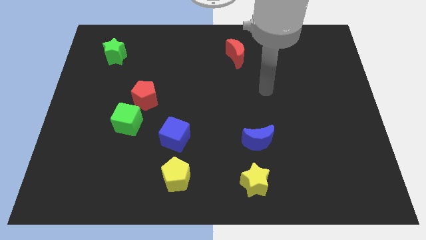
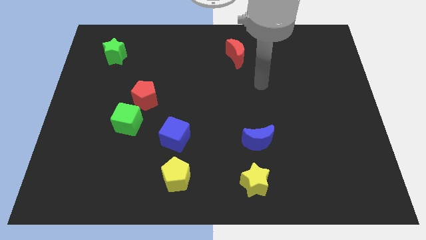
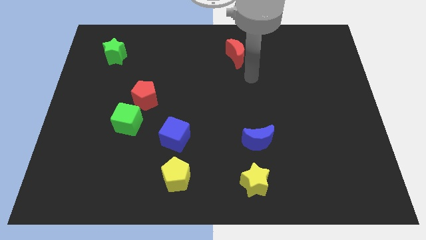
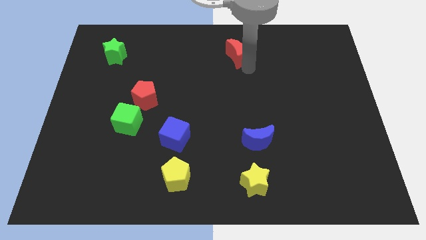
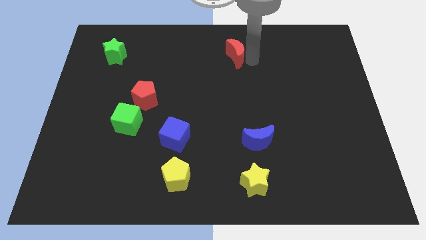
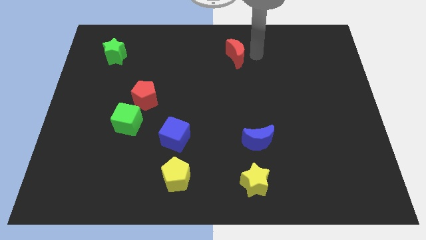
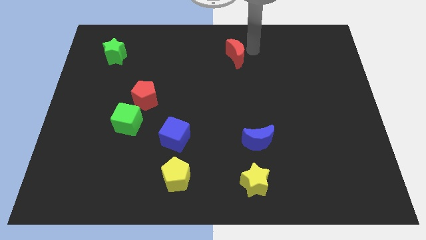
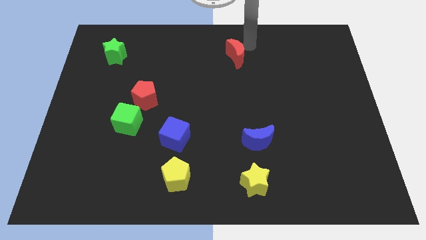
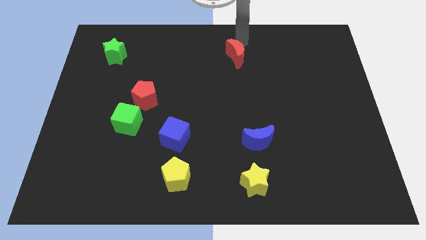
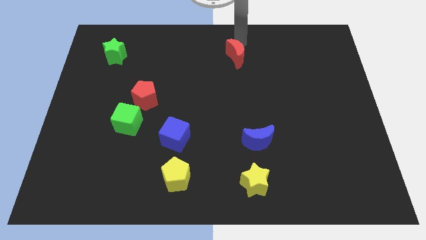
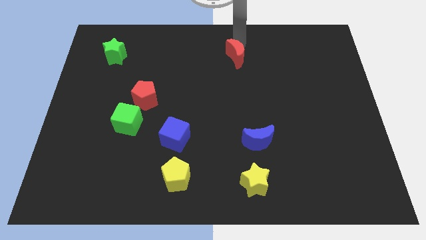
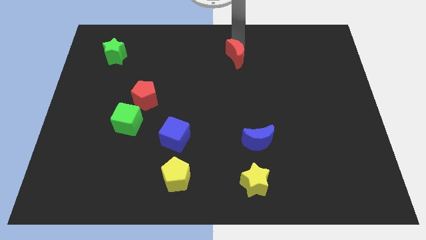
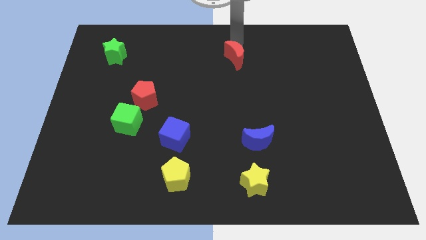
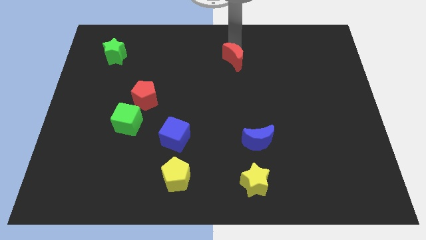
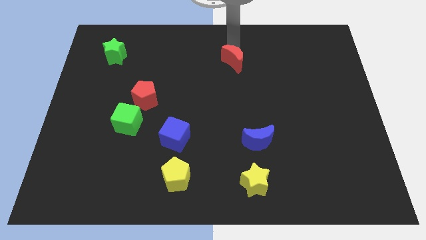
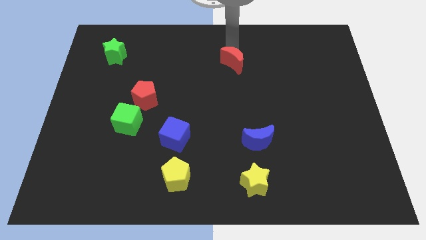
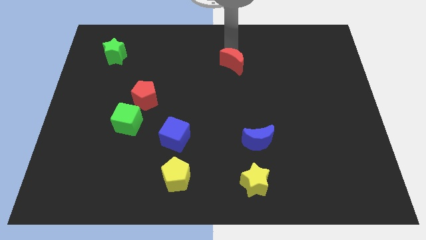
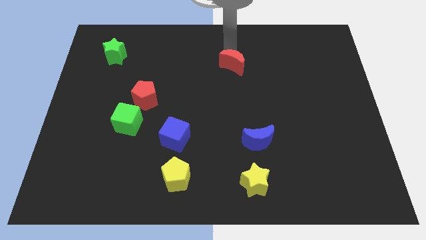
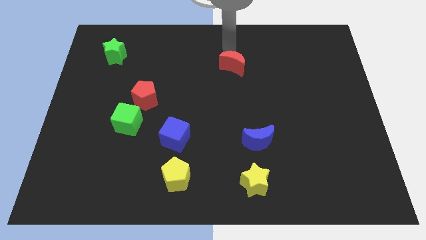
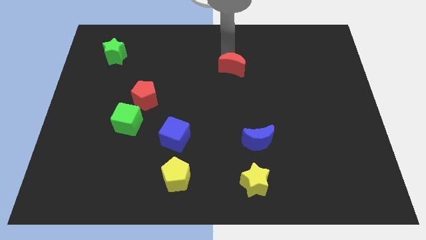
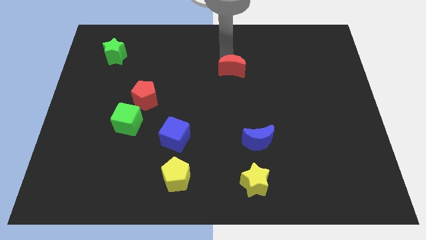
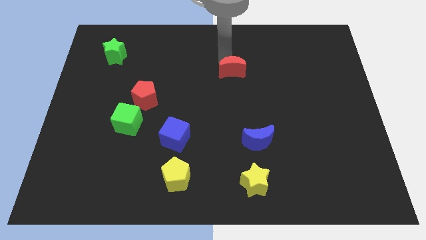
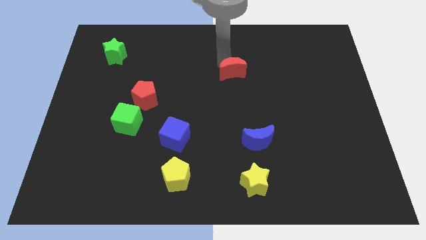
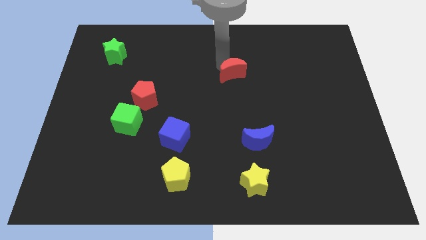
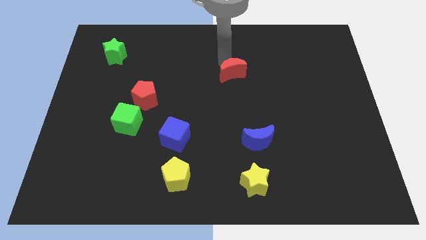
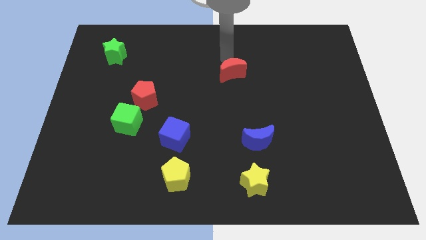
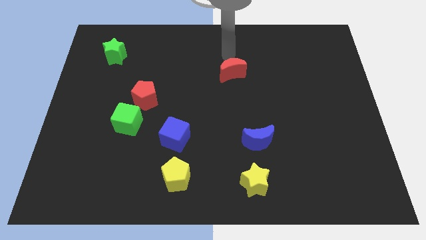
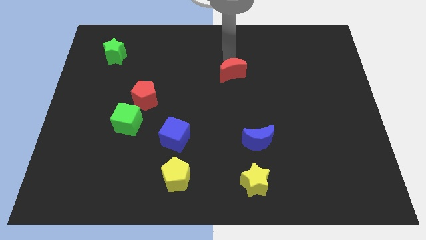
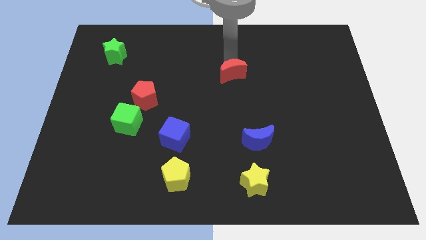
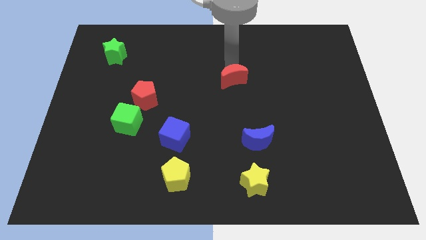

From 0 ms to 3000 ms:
move the red moon somewhat downwards

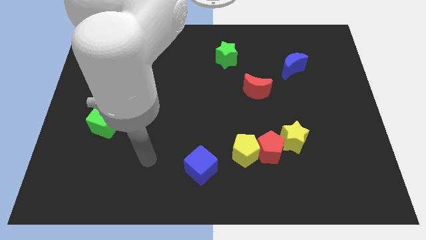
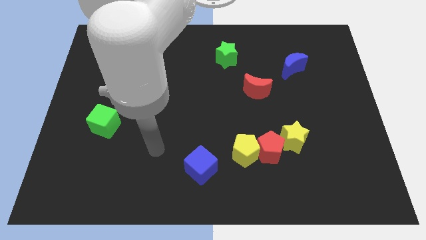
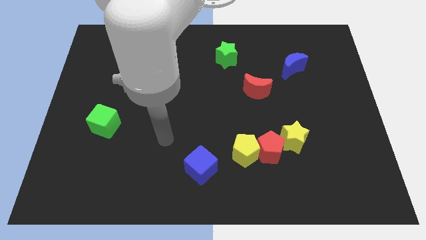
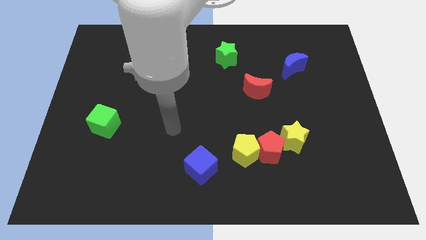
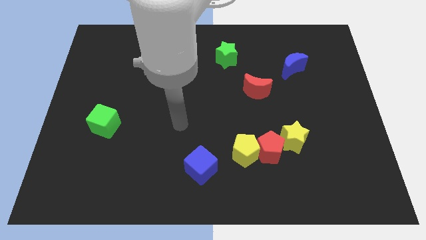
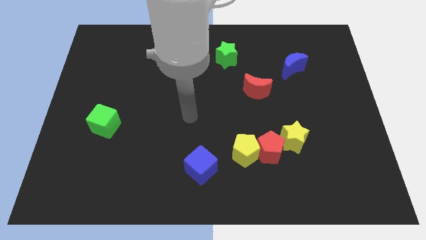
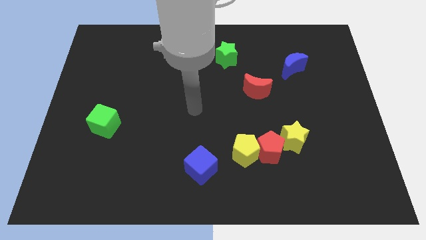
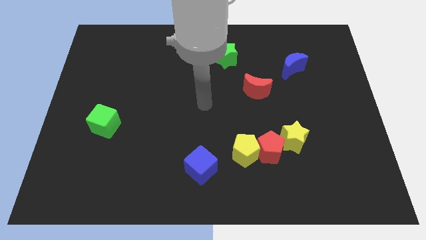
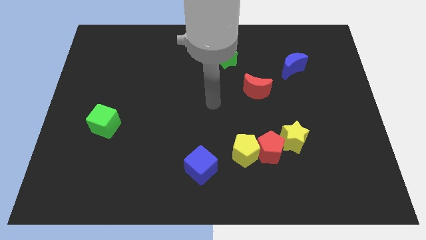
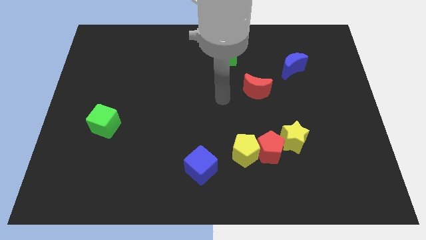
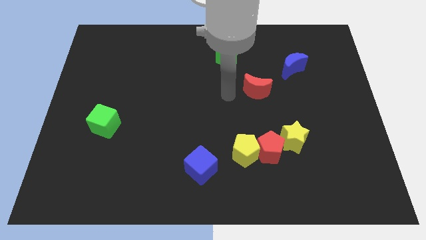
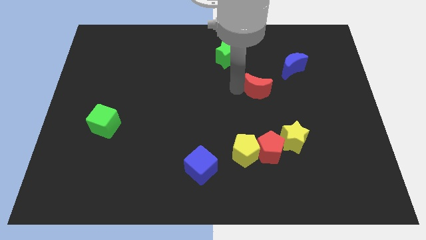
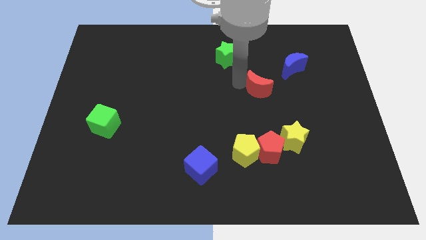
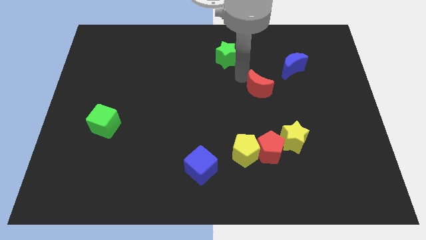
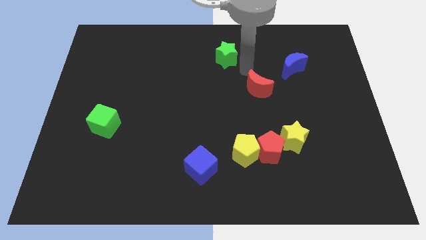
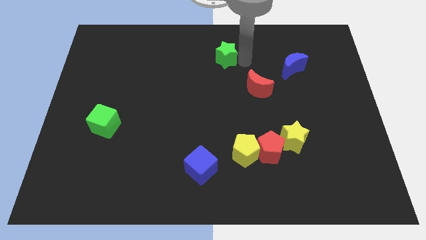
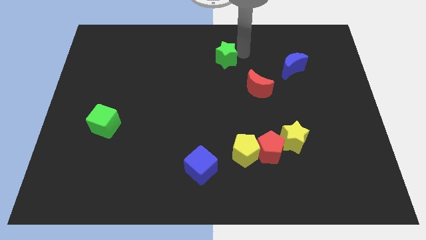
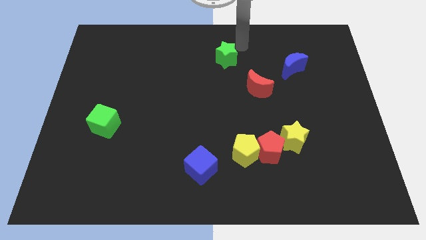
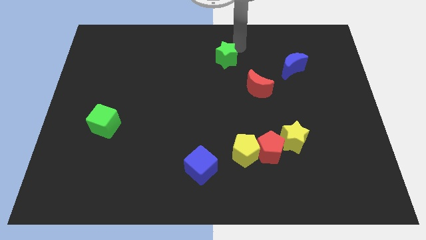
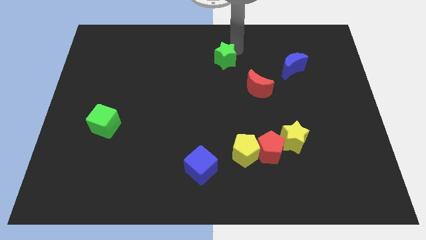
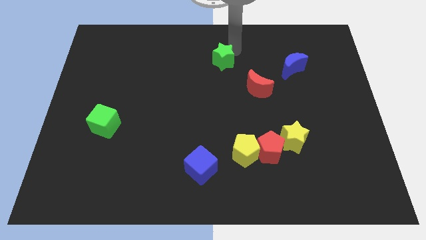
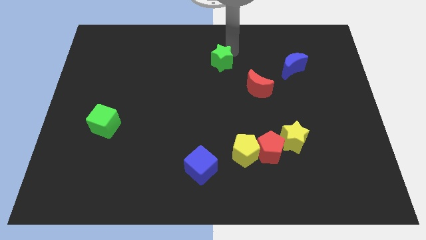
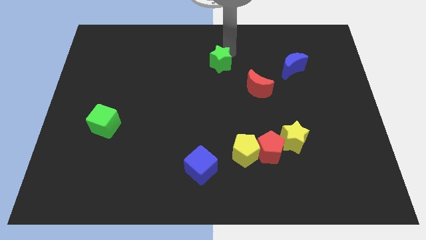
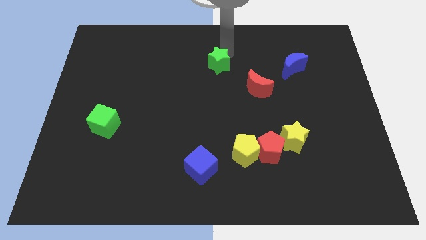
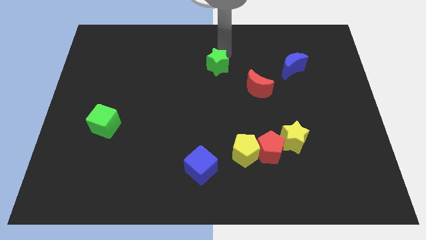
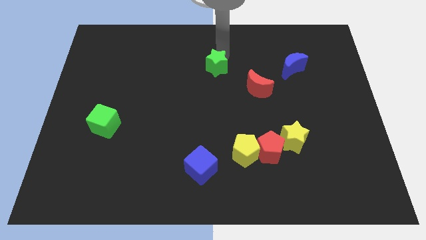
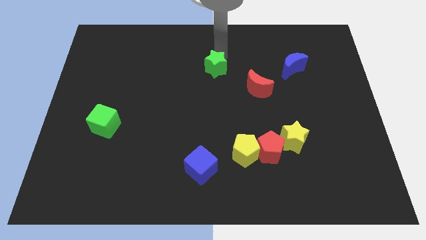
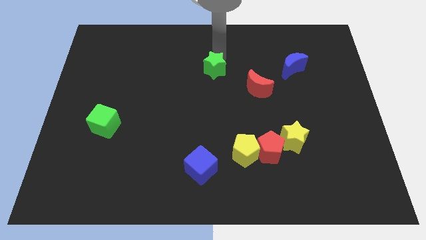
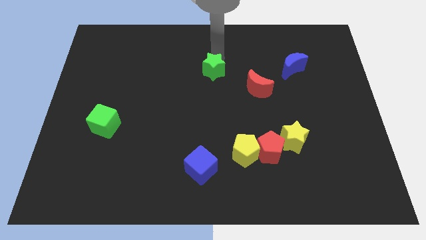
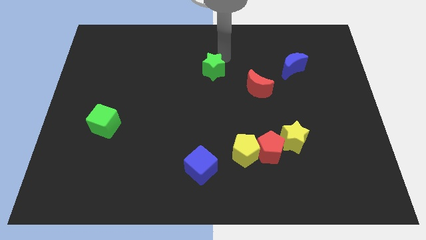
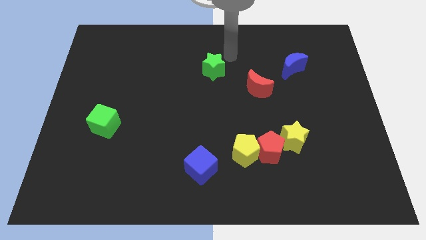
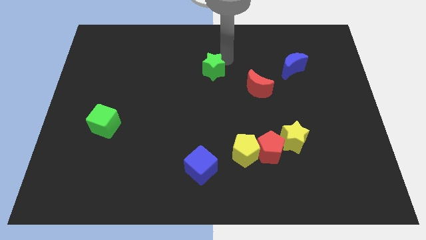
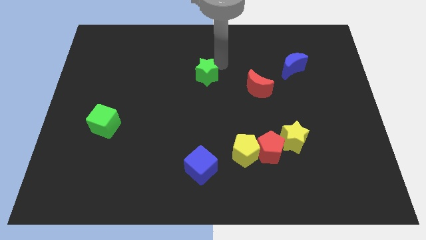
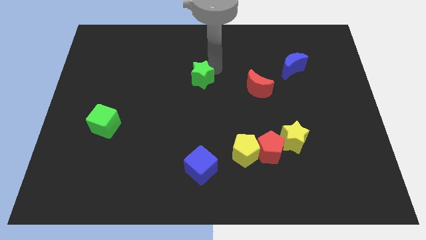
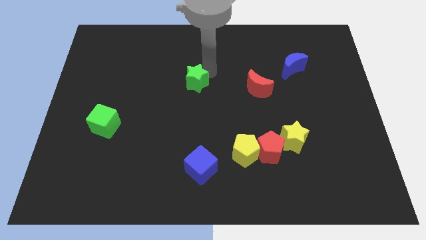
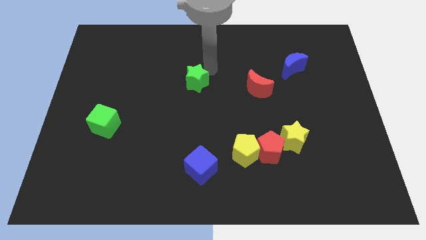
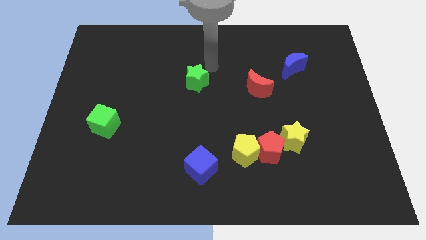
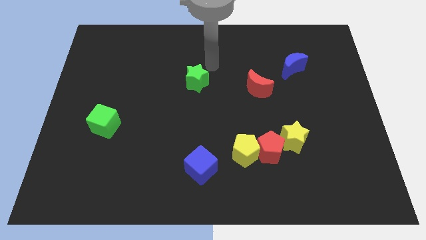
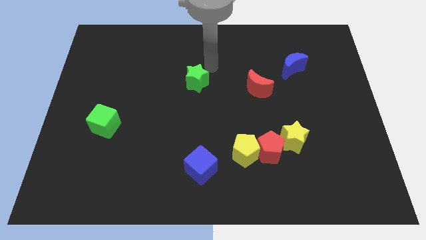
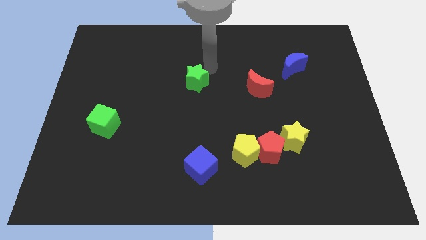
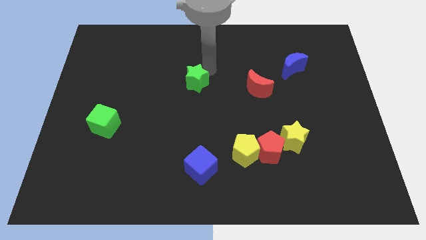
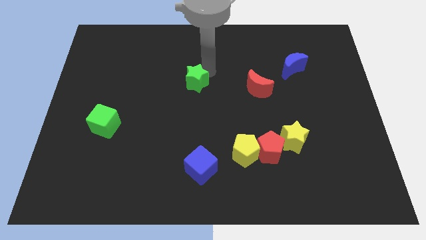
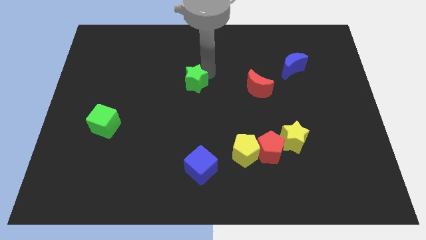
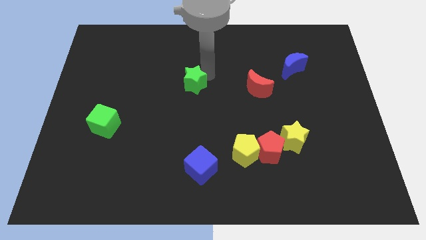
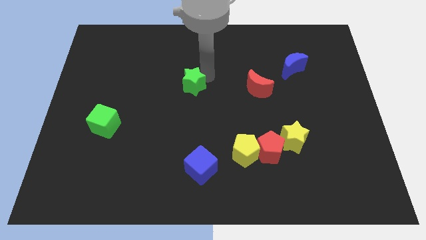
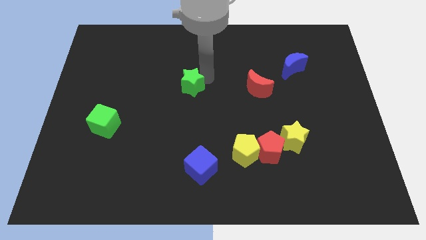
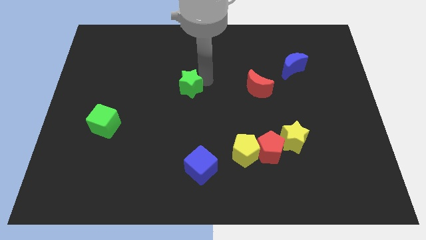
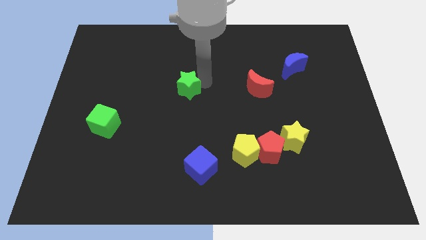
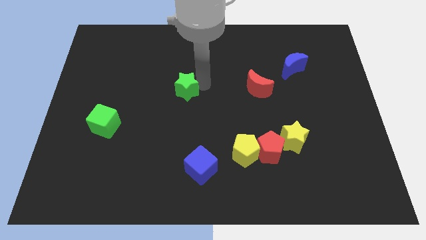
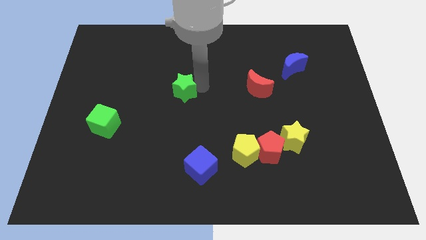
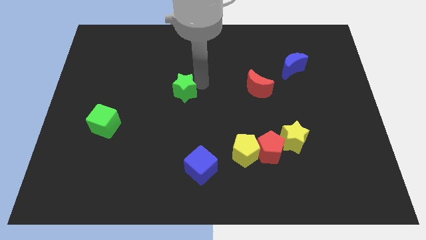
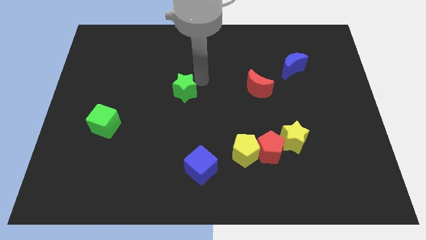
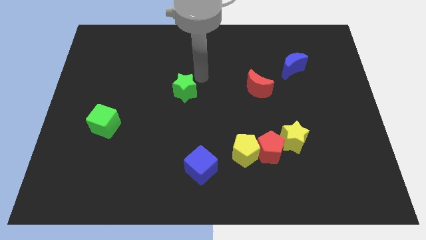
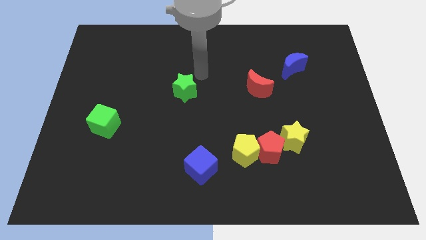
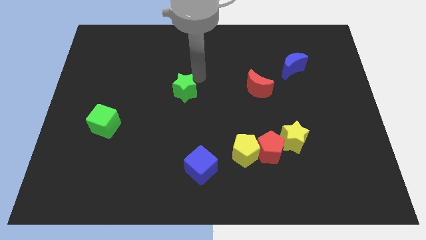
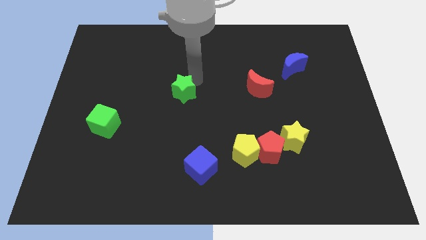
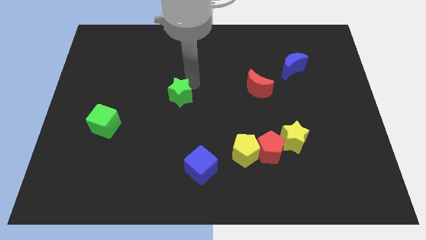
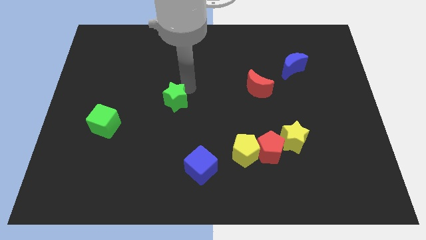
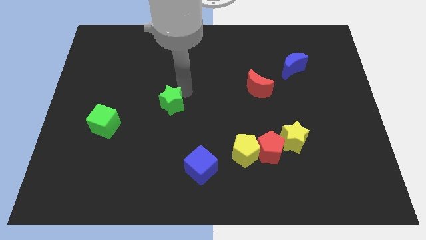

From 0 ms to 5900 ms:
push the green star downwards and left
